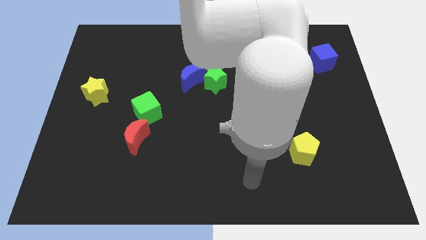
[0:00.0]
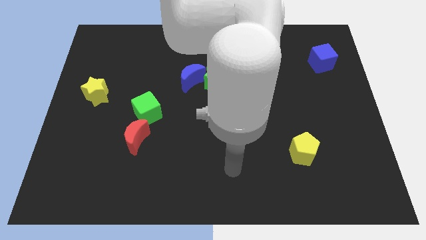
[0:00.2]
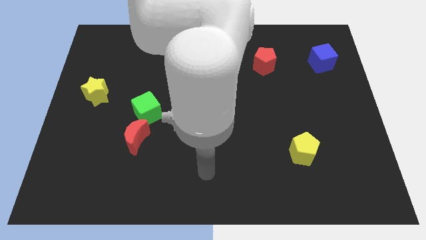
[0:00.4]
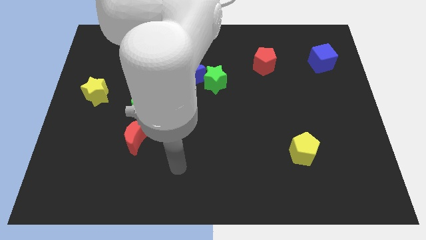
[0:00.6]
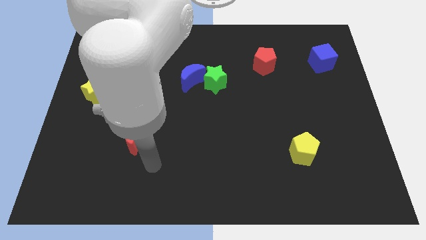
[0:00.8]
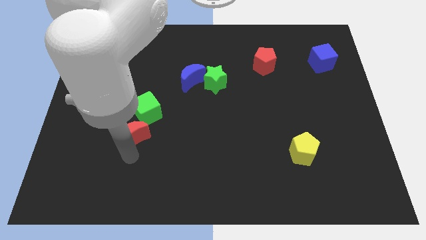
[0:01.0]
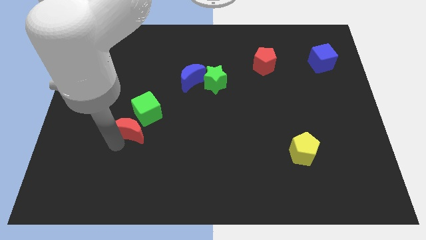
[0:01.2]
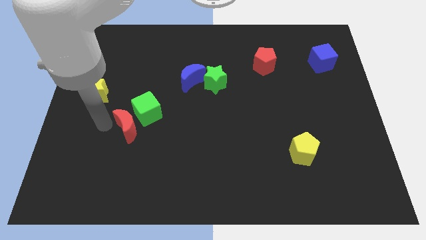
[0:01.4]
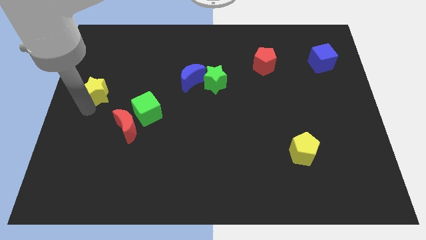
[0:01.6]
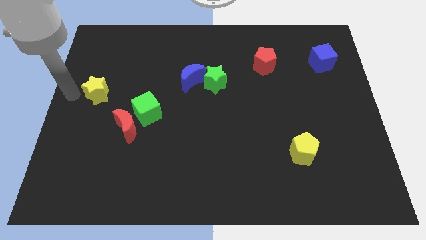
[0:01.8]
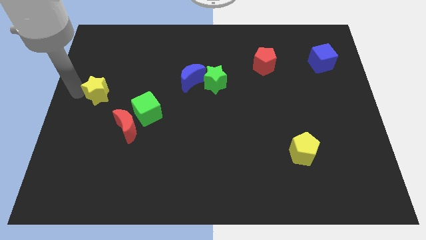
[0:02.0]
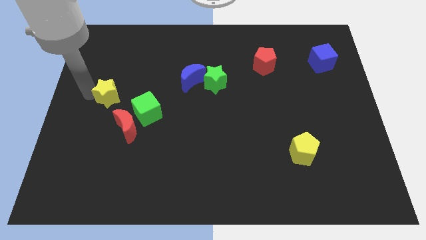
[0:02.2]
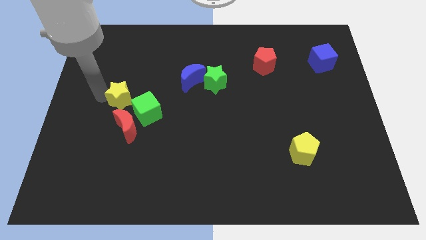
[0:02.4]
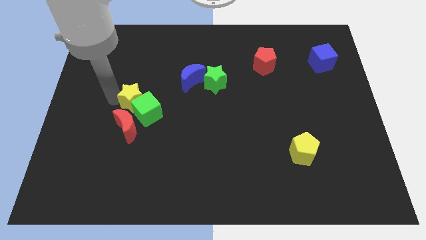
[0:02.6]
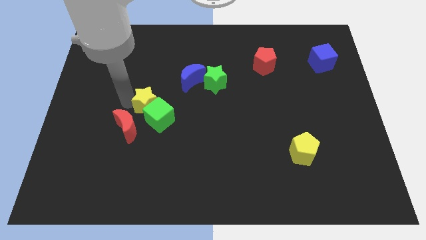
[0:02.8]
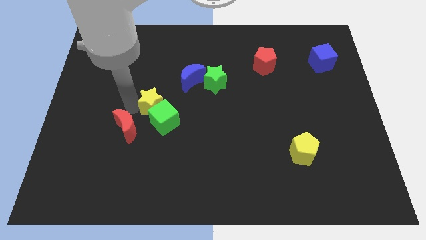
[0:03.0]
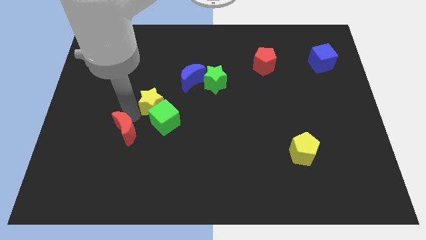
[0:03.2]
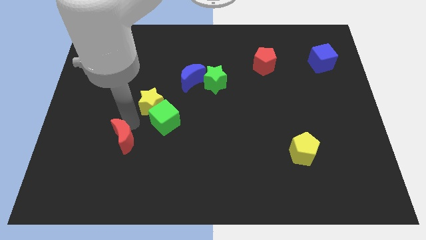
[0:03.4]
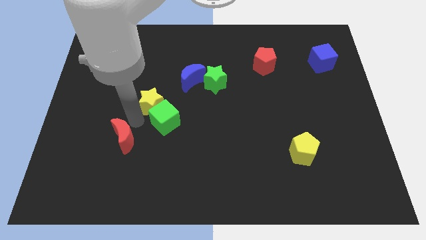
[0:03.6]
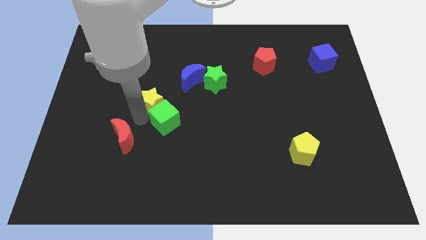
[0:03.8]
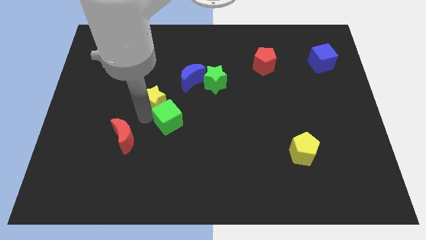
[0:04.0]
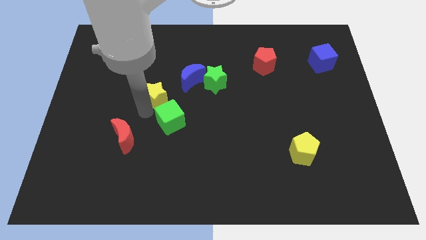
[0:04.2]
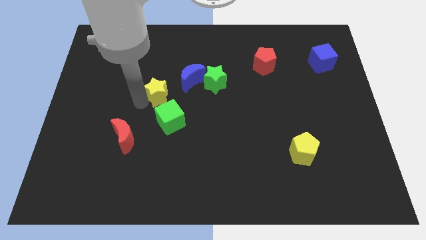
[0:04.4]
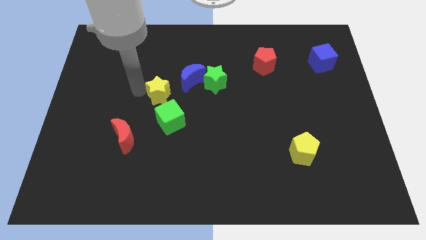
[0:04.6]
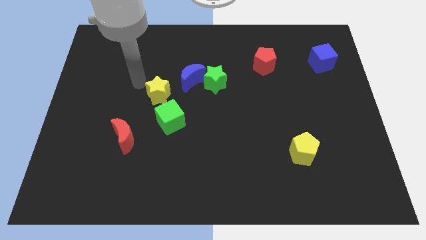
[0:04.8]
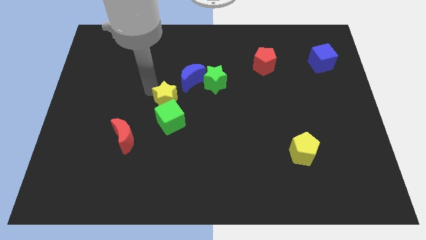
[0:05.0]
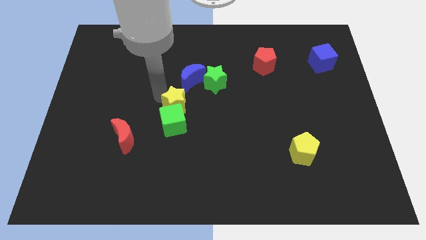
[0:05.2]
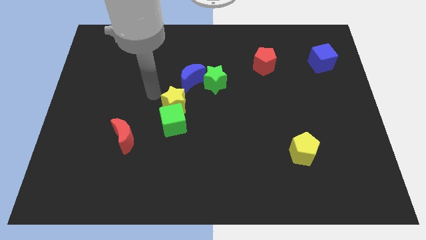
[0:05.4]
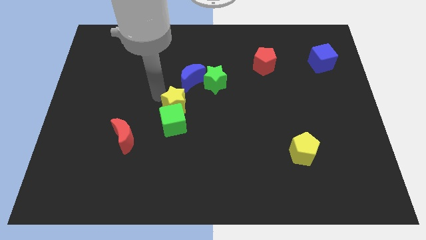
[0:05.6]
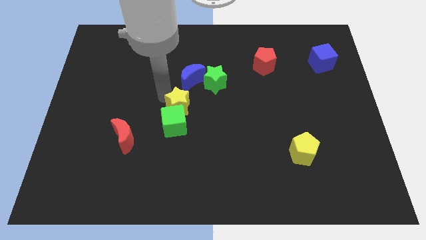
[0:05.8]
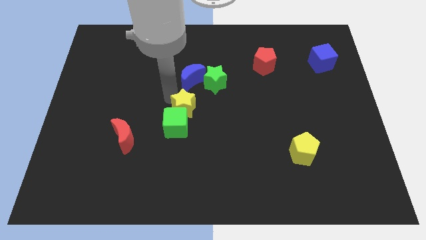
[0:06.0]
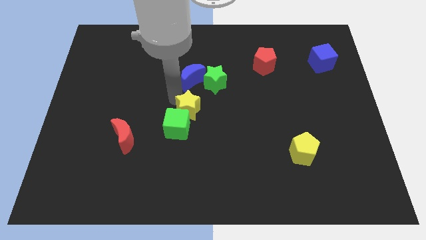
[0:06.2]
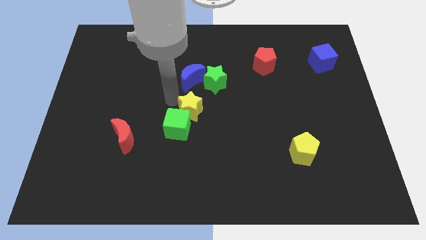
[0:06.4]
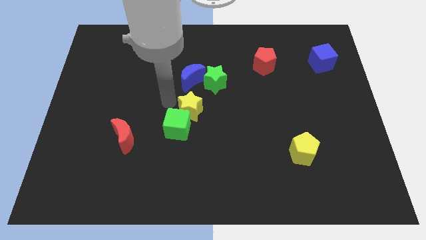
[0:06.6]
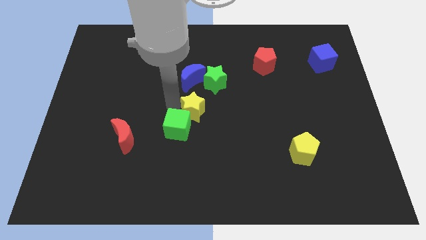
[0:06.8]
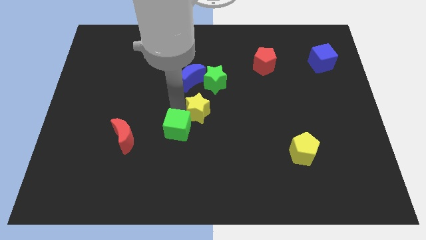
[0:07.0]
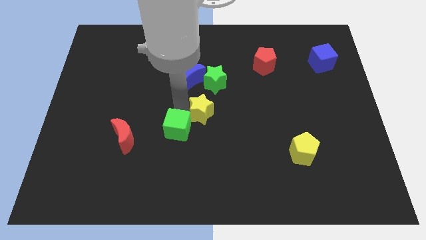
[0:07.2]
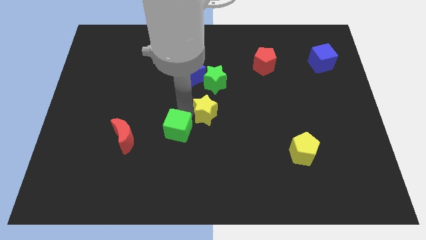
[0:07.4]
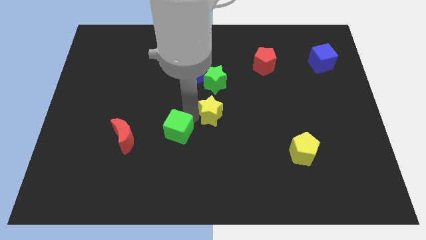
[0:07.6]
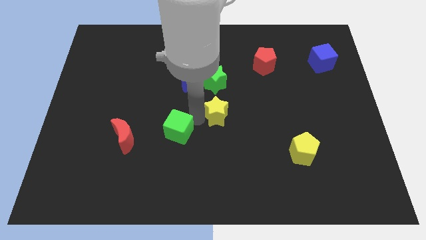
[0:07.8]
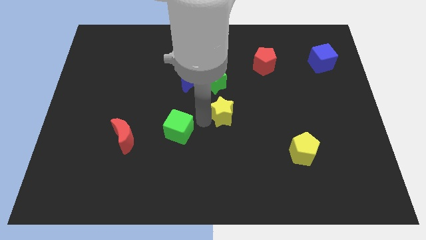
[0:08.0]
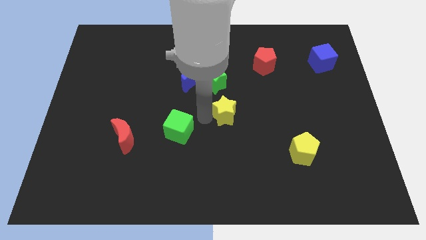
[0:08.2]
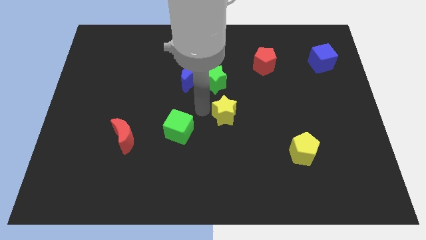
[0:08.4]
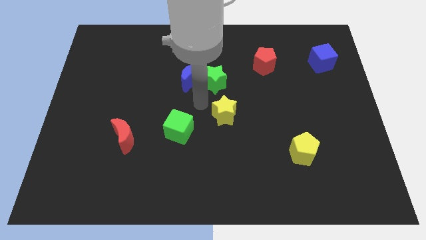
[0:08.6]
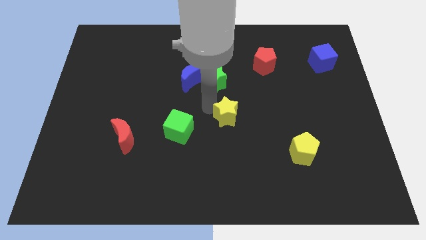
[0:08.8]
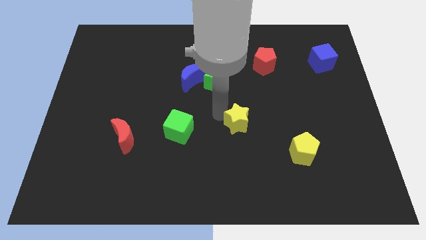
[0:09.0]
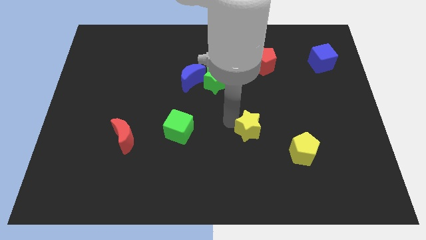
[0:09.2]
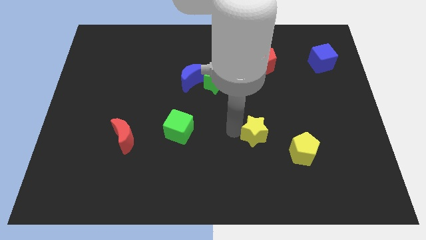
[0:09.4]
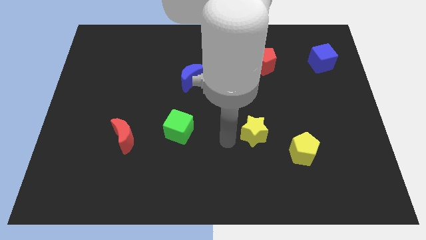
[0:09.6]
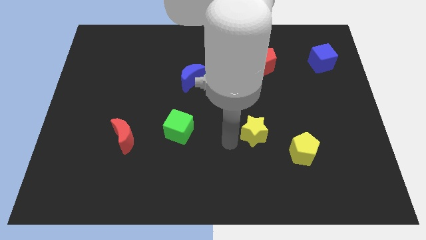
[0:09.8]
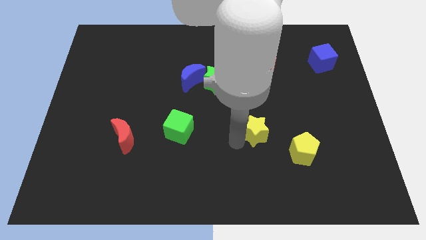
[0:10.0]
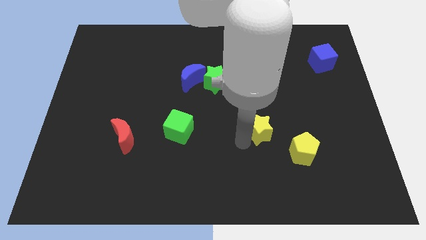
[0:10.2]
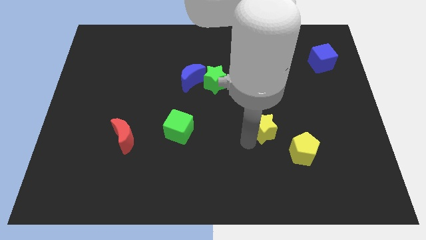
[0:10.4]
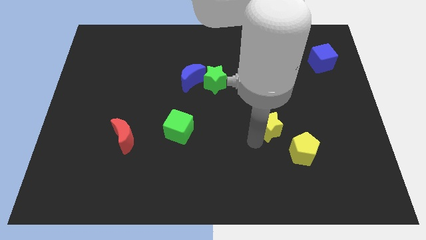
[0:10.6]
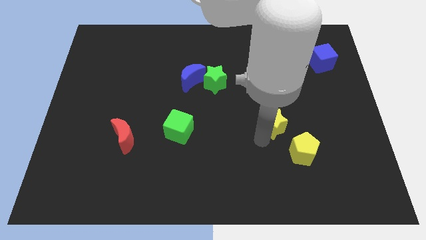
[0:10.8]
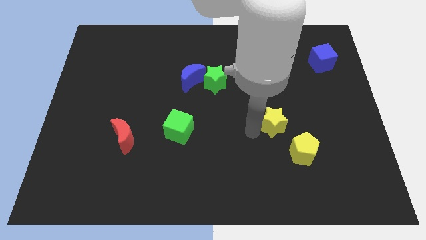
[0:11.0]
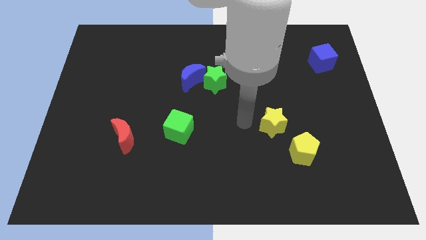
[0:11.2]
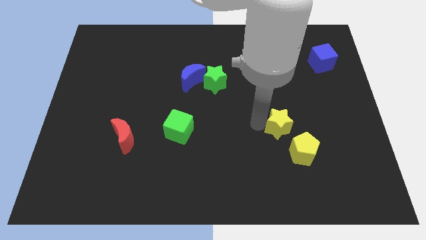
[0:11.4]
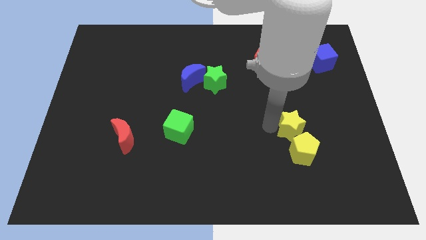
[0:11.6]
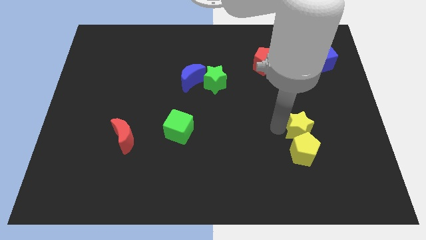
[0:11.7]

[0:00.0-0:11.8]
move the yellow star to the top right of the yellow pentagon

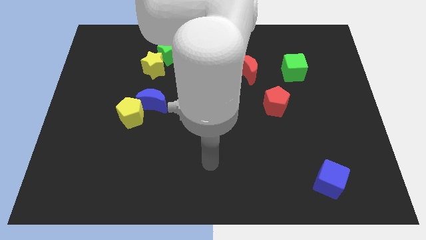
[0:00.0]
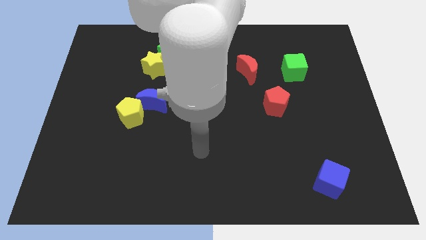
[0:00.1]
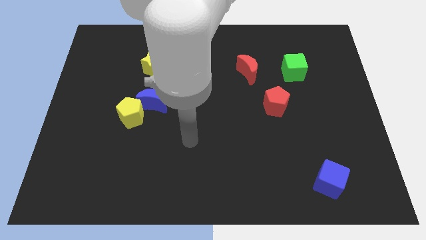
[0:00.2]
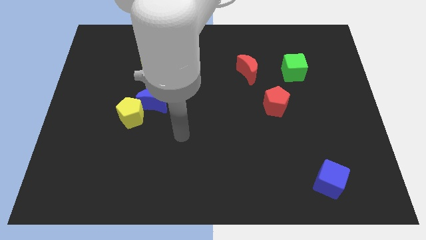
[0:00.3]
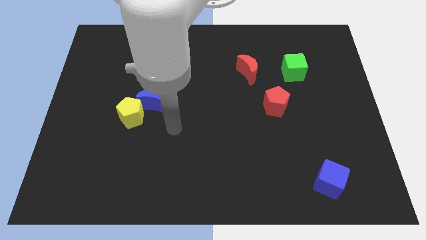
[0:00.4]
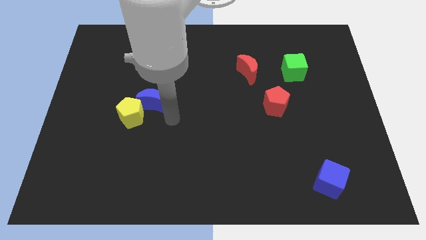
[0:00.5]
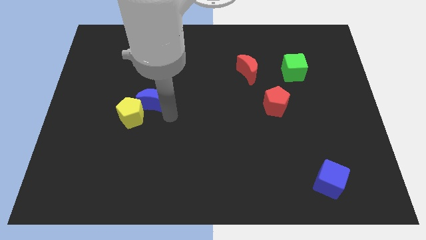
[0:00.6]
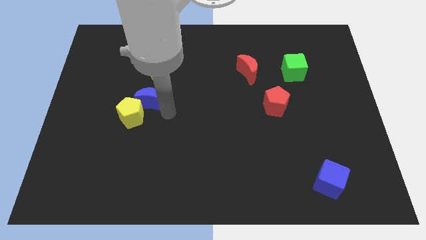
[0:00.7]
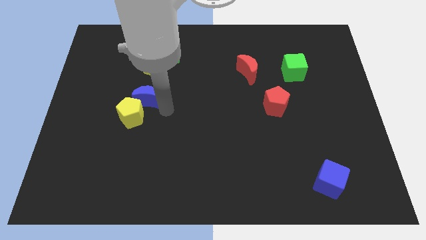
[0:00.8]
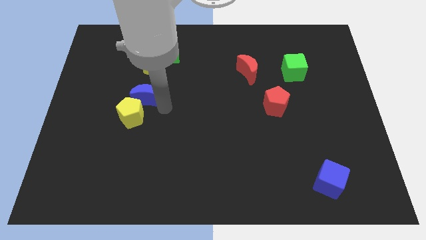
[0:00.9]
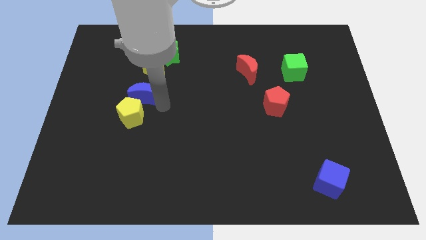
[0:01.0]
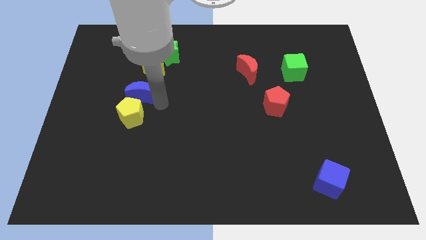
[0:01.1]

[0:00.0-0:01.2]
move the blue moon to the bottom left of the yellow star
